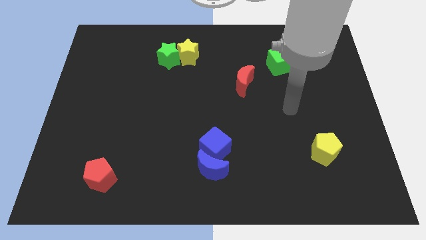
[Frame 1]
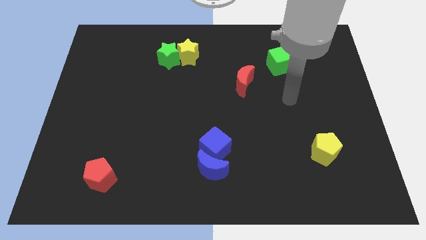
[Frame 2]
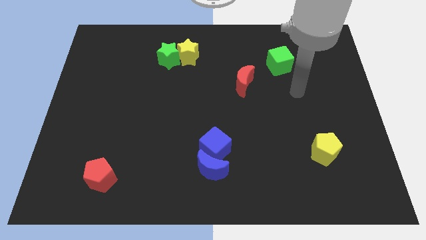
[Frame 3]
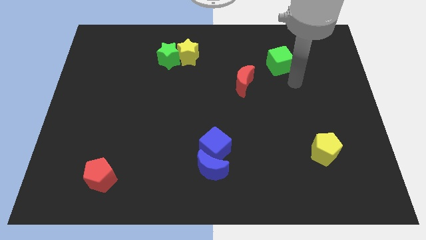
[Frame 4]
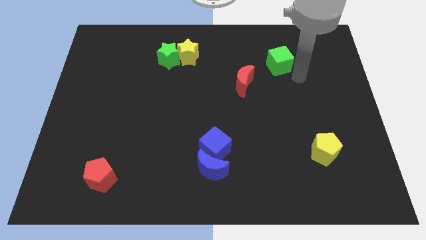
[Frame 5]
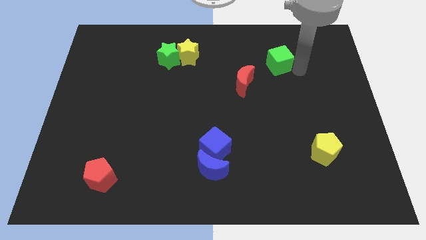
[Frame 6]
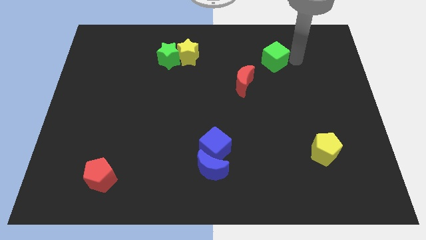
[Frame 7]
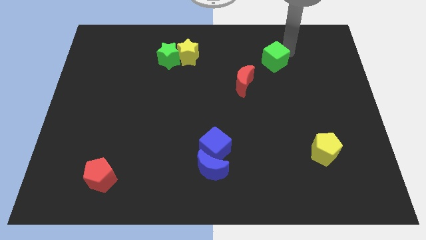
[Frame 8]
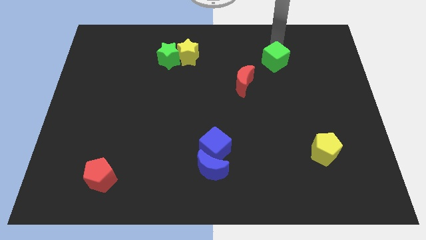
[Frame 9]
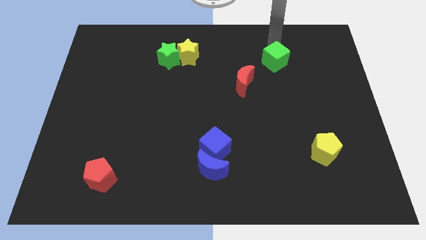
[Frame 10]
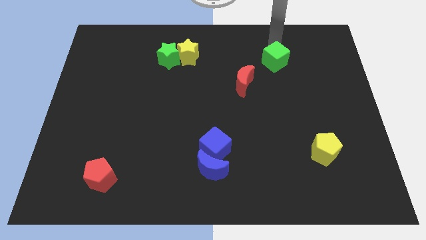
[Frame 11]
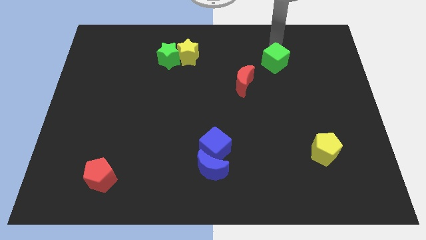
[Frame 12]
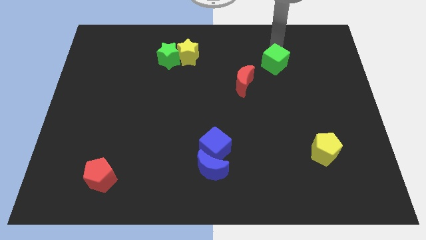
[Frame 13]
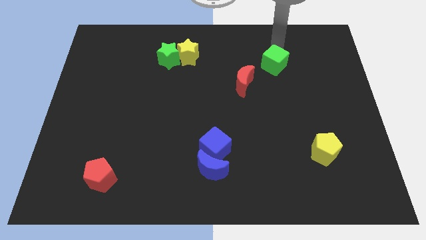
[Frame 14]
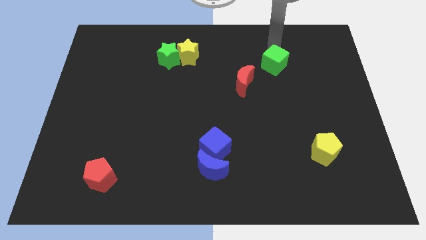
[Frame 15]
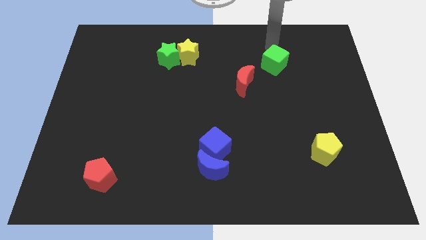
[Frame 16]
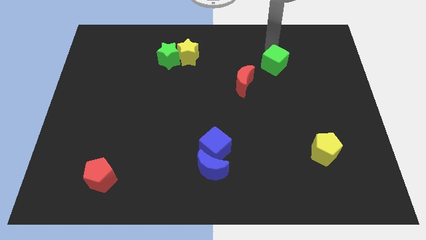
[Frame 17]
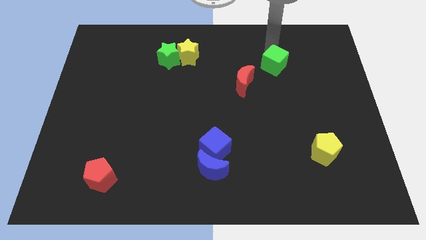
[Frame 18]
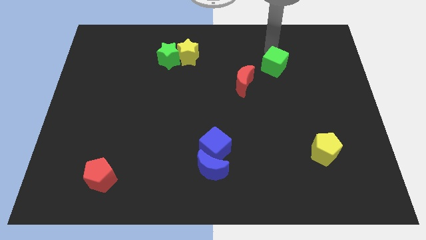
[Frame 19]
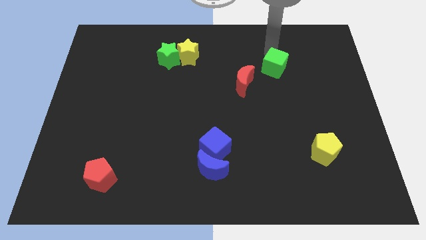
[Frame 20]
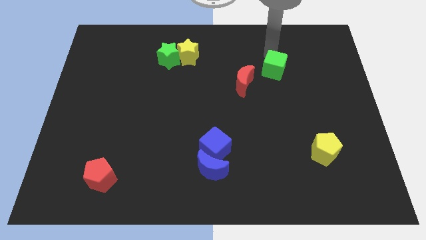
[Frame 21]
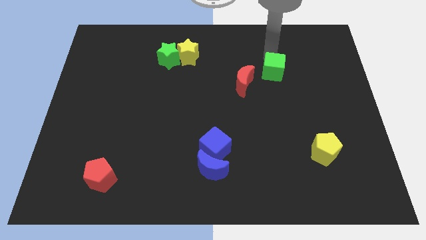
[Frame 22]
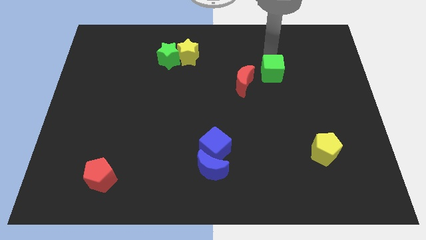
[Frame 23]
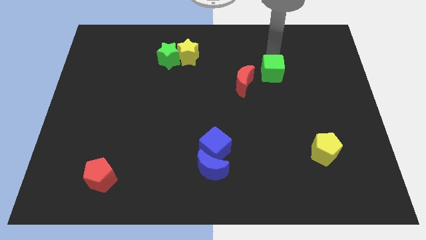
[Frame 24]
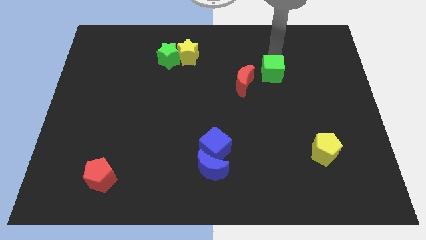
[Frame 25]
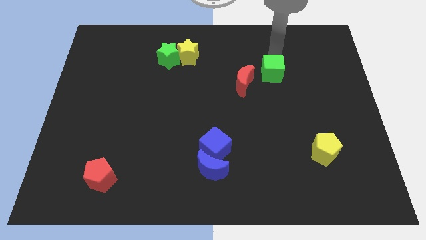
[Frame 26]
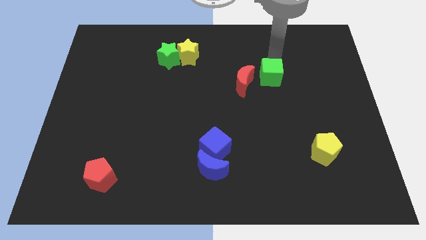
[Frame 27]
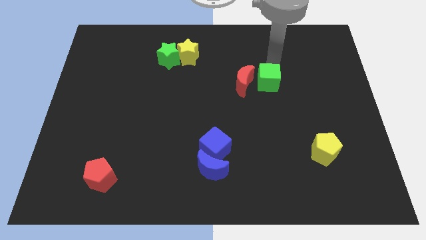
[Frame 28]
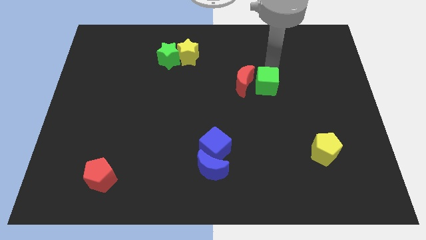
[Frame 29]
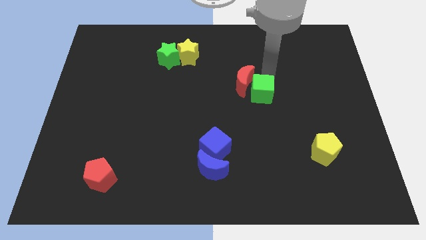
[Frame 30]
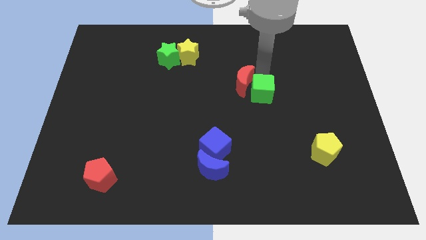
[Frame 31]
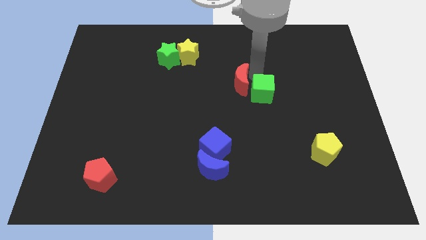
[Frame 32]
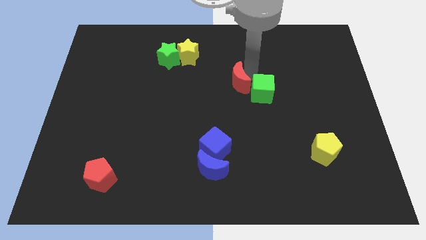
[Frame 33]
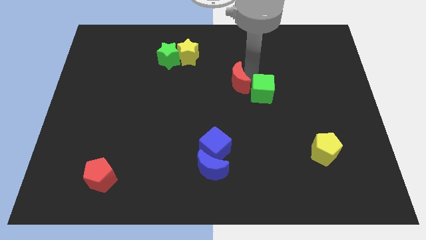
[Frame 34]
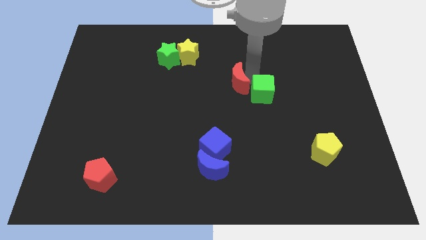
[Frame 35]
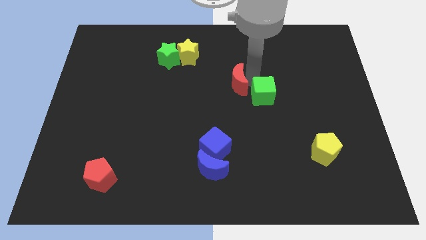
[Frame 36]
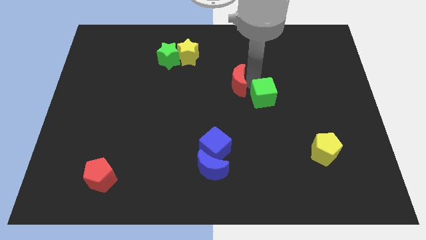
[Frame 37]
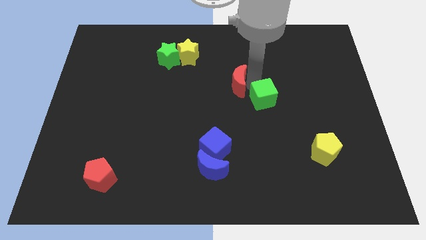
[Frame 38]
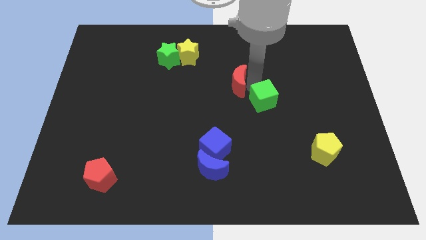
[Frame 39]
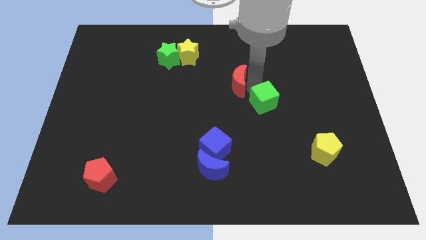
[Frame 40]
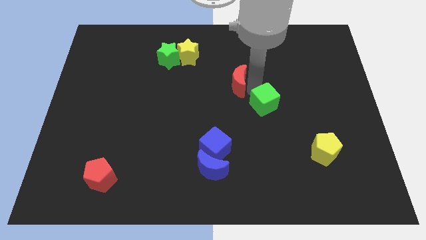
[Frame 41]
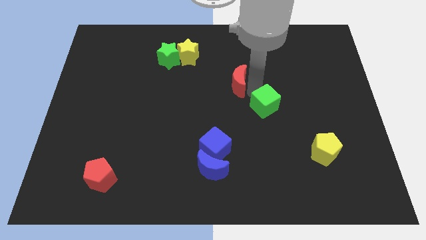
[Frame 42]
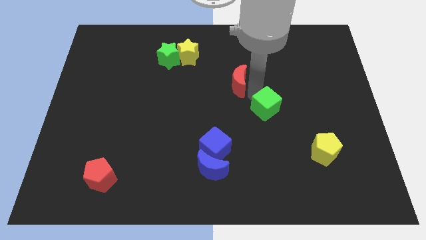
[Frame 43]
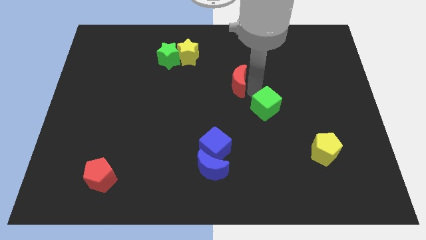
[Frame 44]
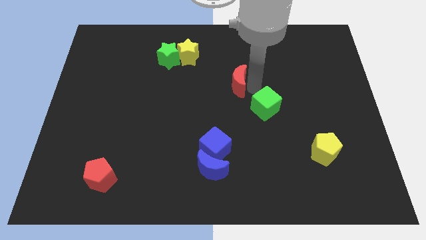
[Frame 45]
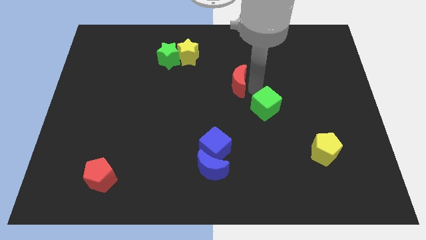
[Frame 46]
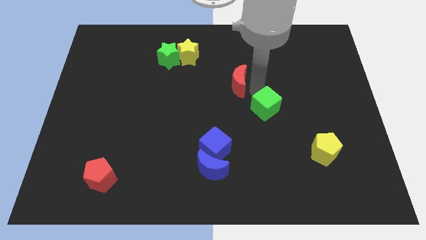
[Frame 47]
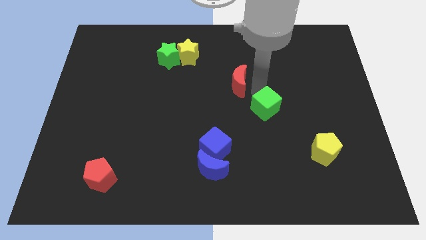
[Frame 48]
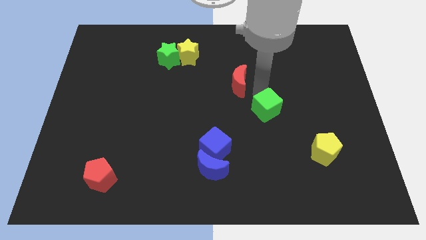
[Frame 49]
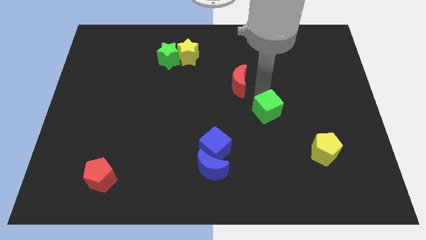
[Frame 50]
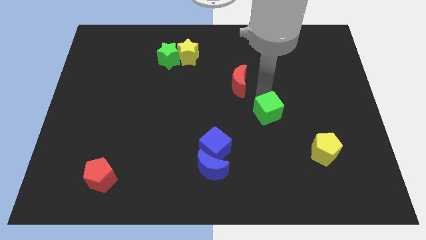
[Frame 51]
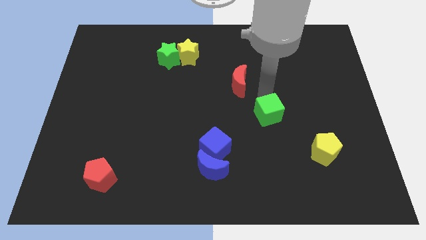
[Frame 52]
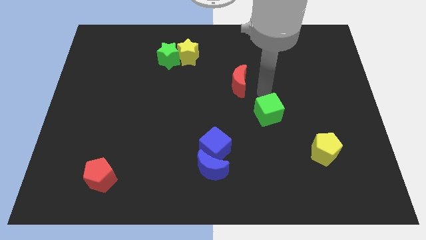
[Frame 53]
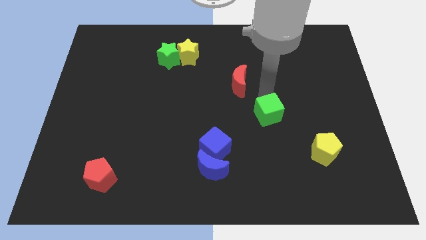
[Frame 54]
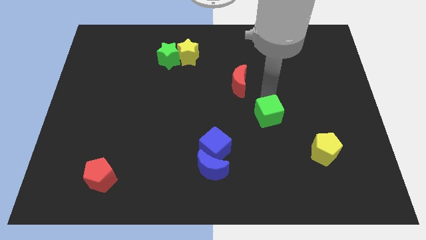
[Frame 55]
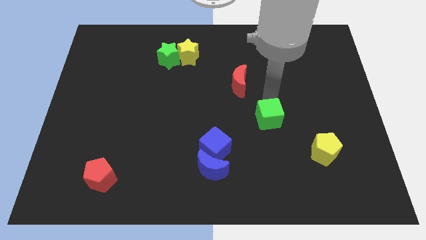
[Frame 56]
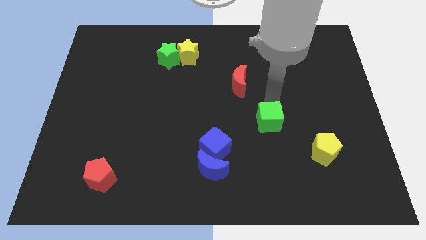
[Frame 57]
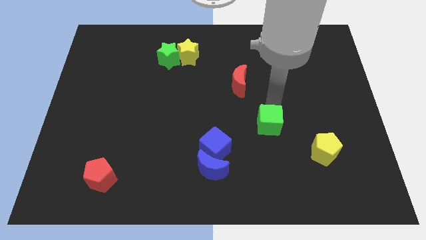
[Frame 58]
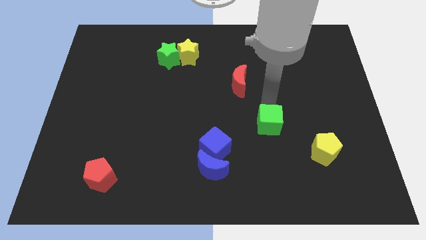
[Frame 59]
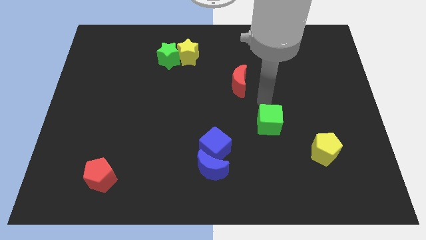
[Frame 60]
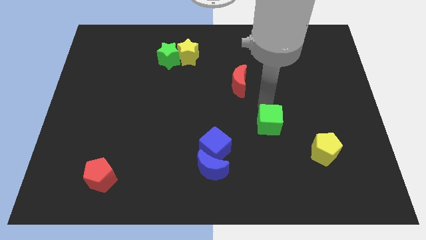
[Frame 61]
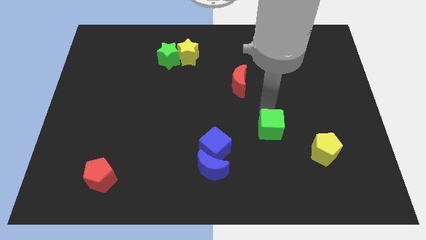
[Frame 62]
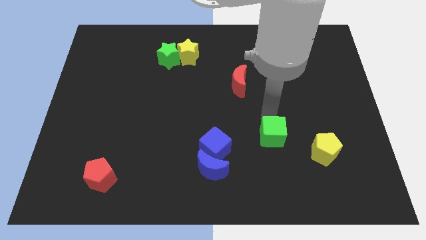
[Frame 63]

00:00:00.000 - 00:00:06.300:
slide the green cube left of the yellow pentagon
